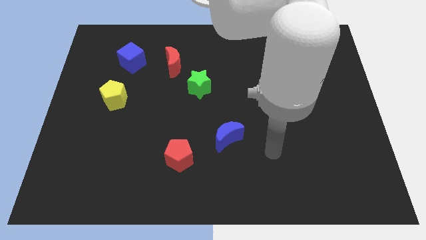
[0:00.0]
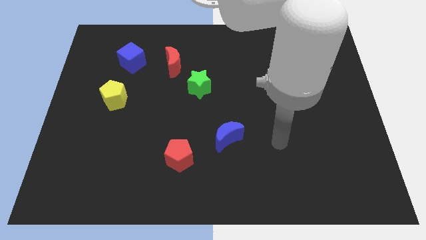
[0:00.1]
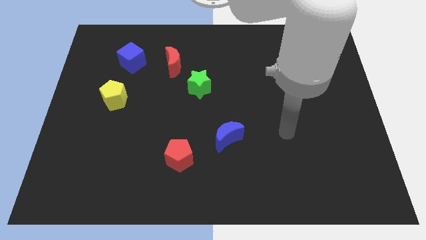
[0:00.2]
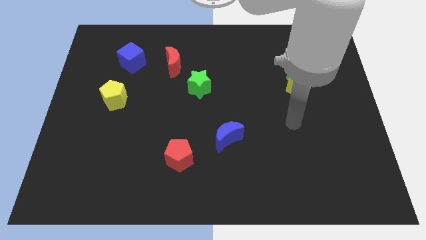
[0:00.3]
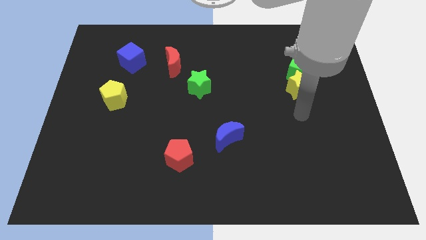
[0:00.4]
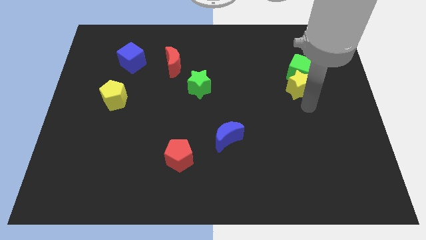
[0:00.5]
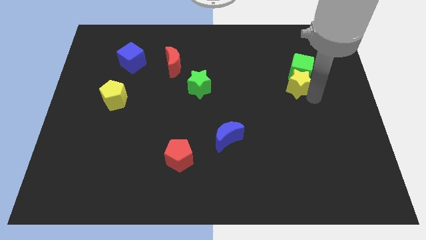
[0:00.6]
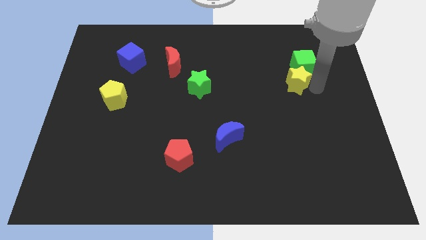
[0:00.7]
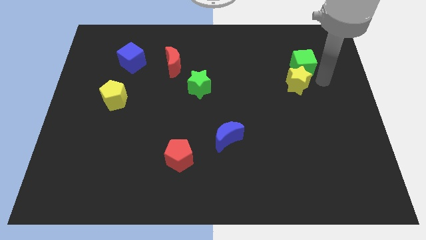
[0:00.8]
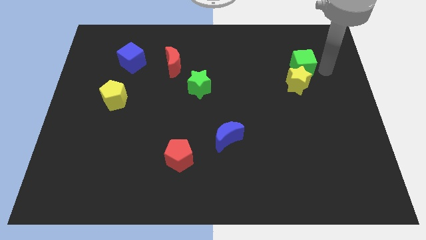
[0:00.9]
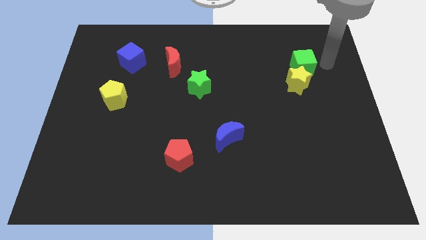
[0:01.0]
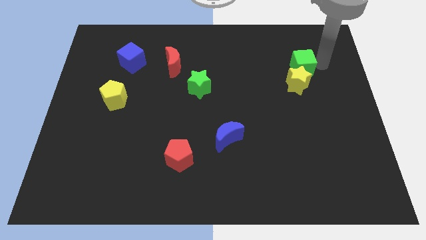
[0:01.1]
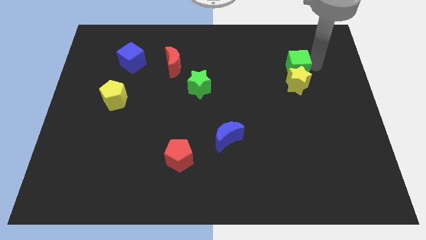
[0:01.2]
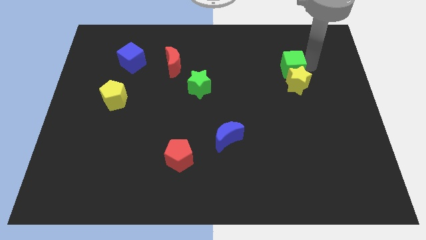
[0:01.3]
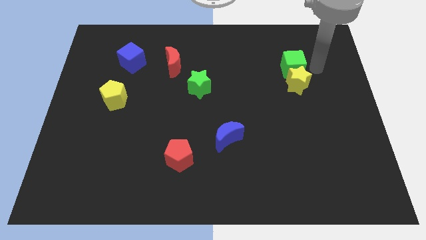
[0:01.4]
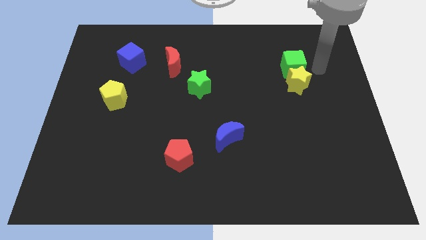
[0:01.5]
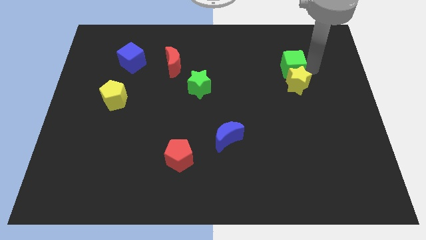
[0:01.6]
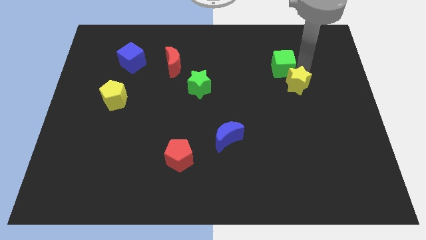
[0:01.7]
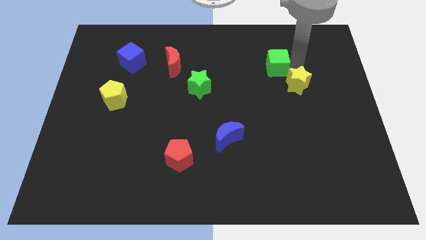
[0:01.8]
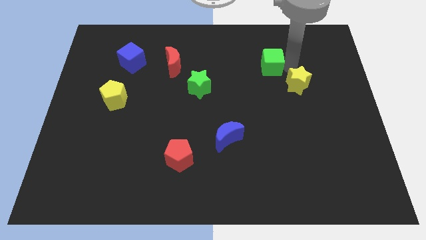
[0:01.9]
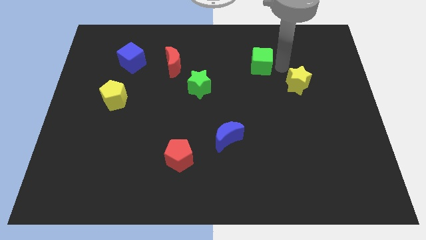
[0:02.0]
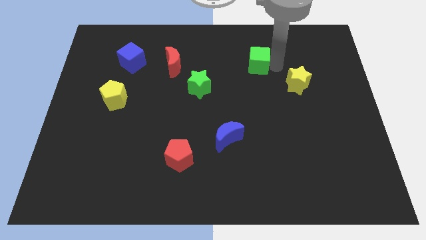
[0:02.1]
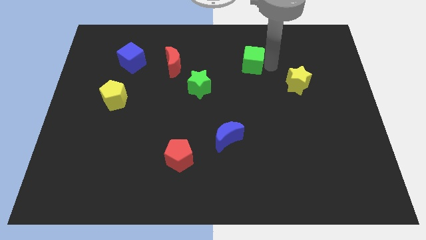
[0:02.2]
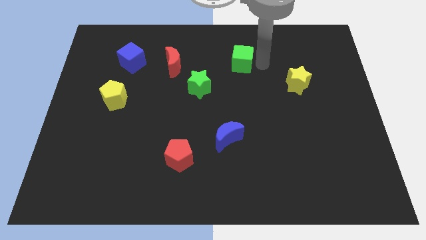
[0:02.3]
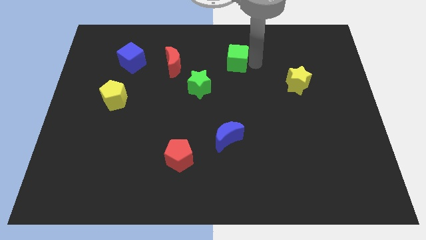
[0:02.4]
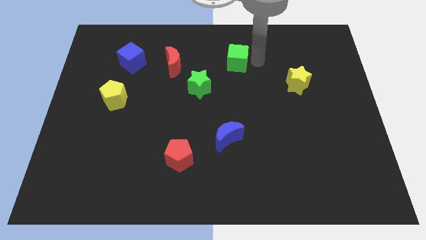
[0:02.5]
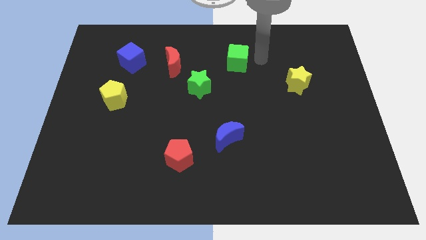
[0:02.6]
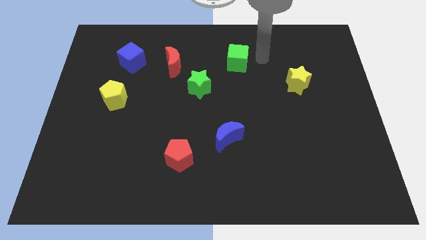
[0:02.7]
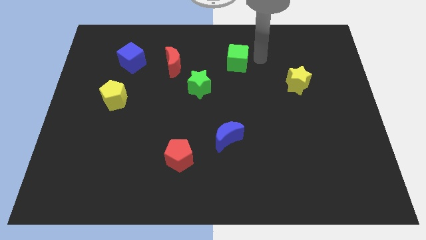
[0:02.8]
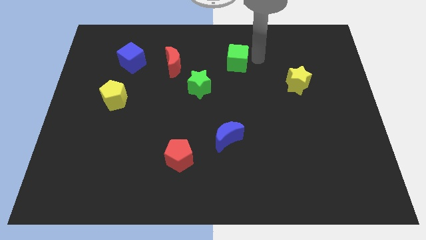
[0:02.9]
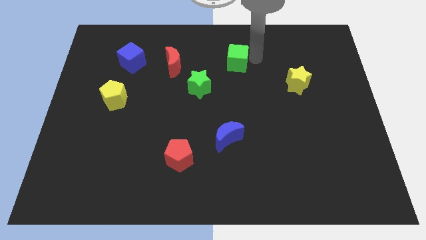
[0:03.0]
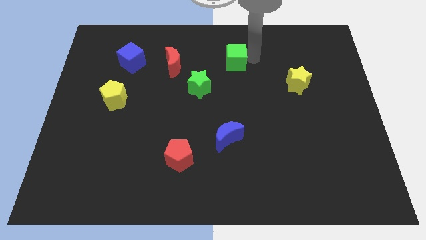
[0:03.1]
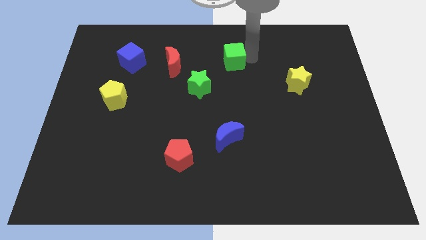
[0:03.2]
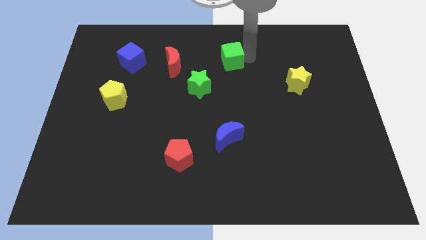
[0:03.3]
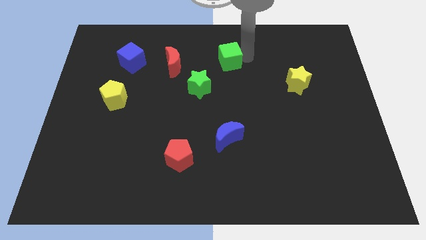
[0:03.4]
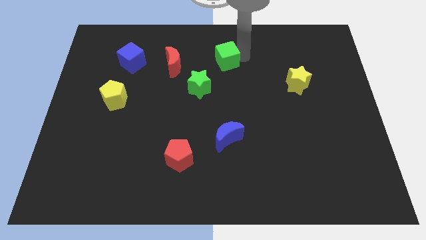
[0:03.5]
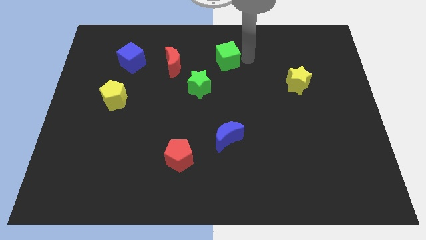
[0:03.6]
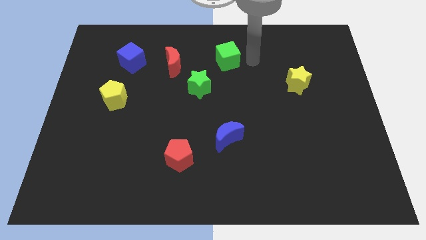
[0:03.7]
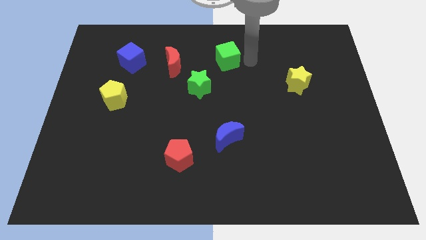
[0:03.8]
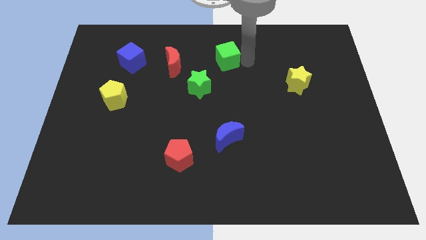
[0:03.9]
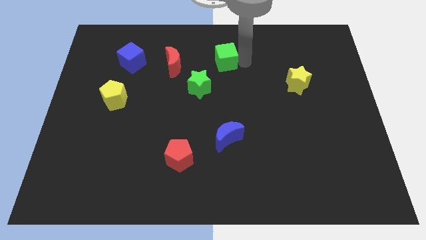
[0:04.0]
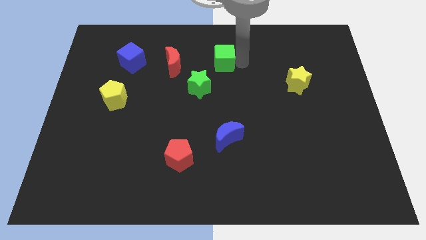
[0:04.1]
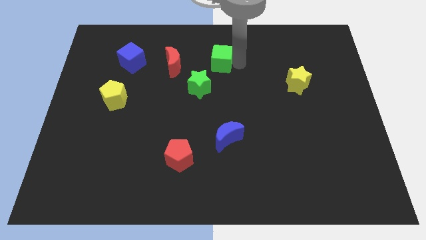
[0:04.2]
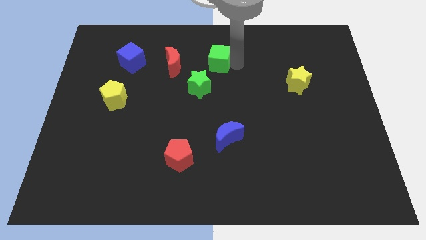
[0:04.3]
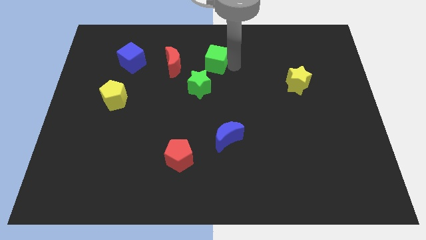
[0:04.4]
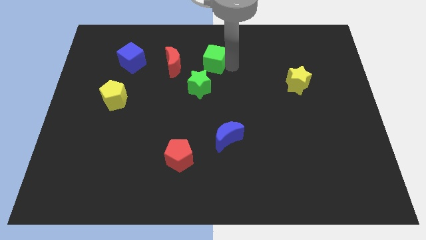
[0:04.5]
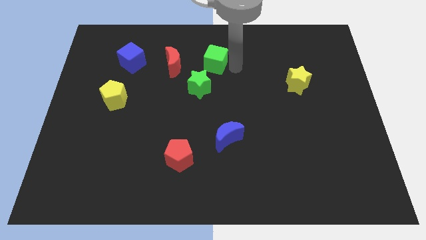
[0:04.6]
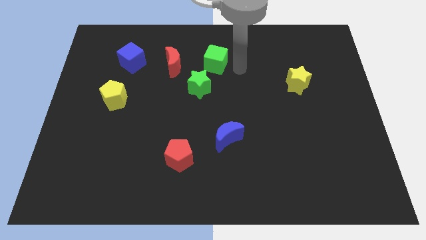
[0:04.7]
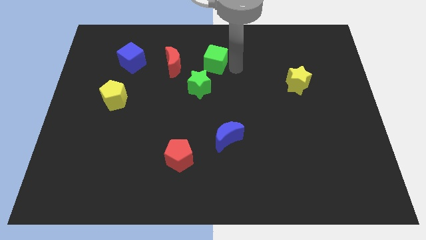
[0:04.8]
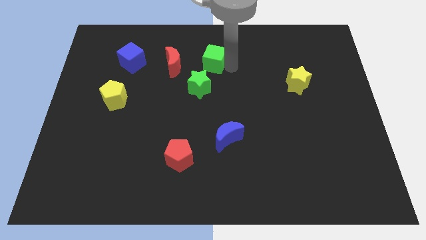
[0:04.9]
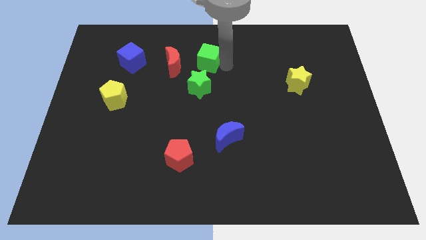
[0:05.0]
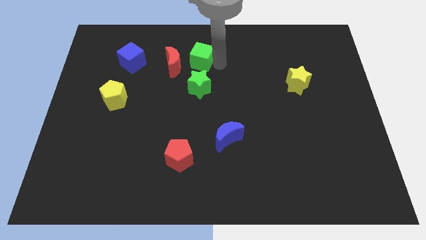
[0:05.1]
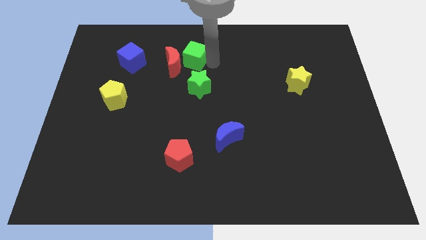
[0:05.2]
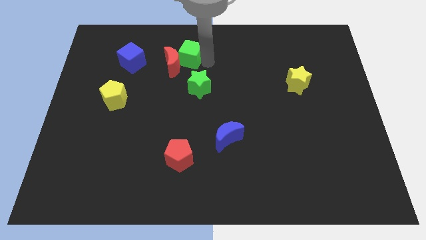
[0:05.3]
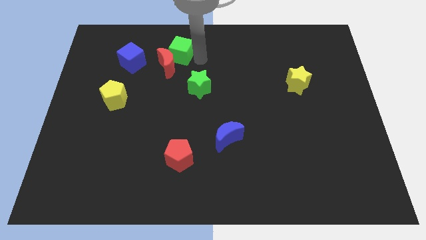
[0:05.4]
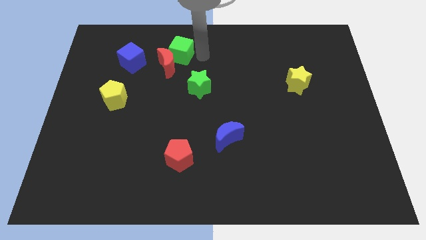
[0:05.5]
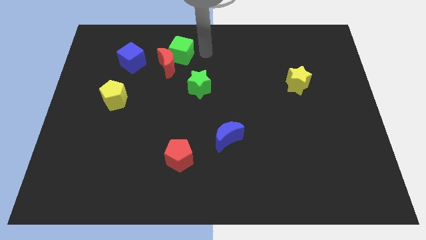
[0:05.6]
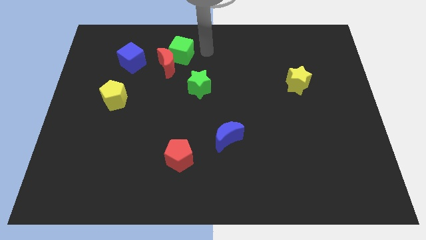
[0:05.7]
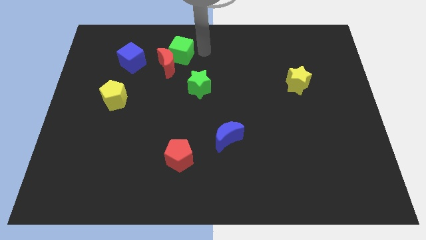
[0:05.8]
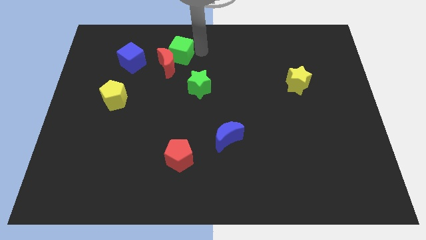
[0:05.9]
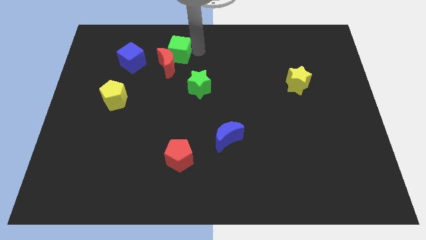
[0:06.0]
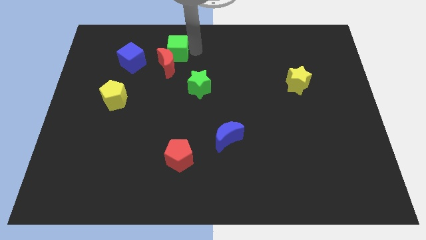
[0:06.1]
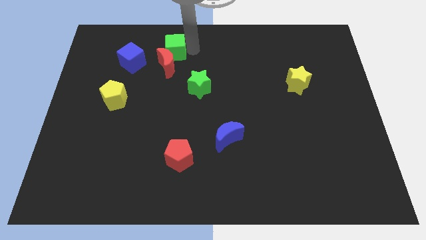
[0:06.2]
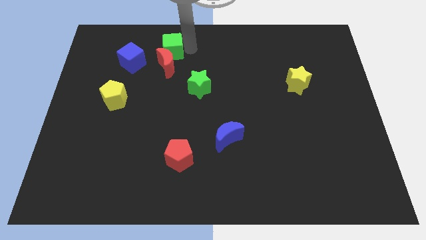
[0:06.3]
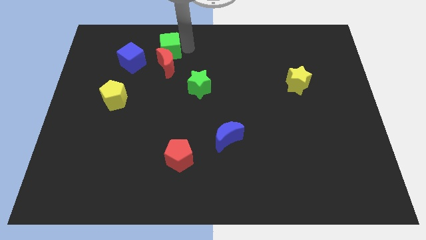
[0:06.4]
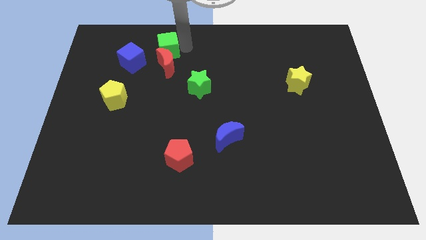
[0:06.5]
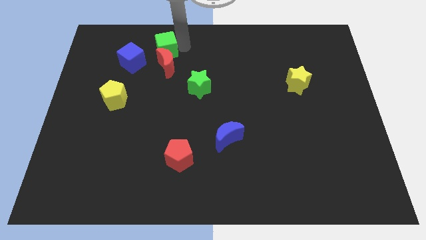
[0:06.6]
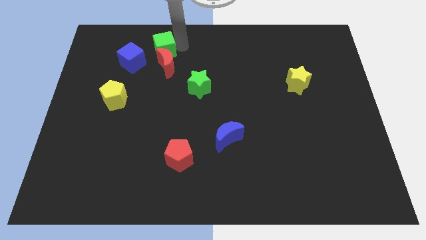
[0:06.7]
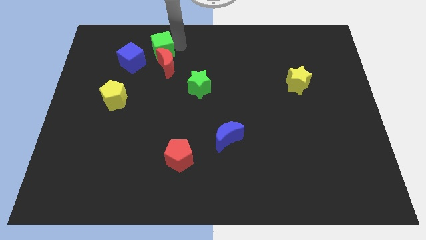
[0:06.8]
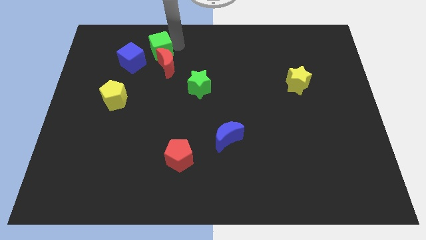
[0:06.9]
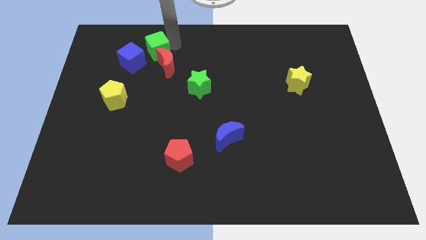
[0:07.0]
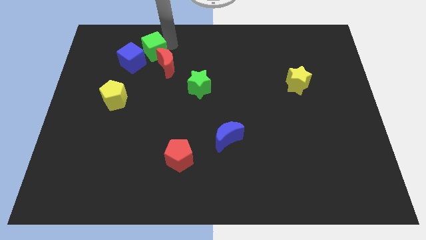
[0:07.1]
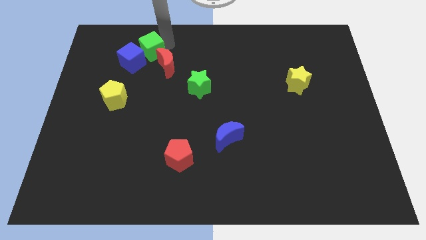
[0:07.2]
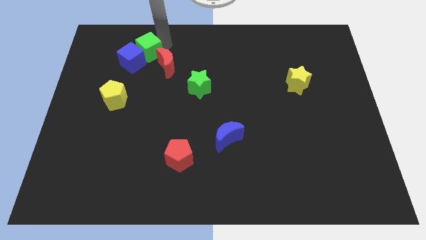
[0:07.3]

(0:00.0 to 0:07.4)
slide the green cube next to the blue cube
